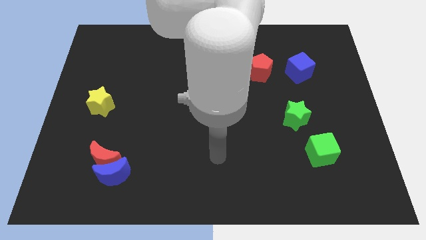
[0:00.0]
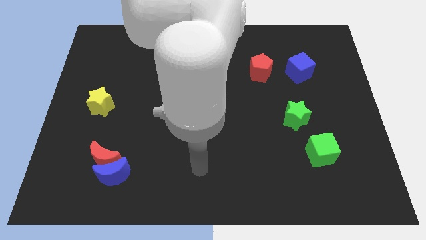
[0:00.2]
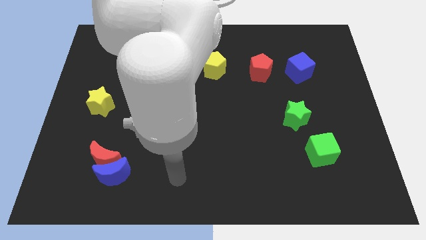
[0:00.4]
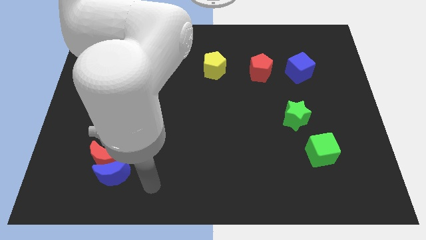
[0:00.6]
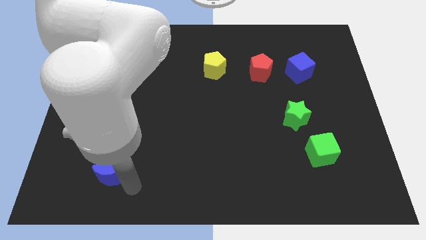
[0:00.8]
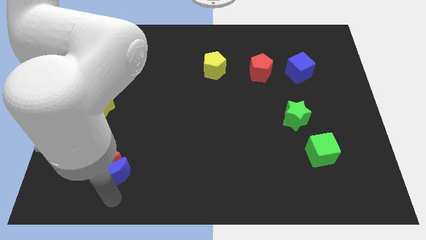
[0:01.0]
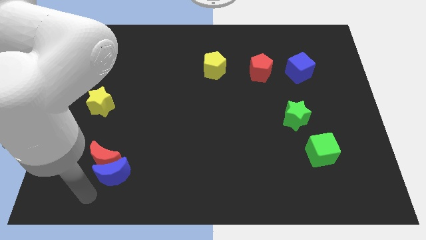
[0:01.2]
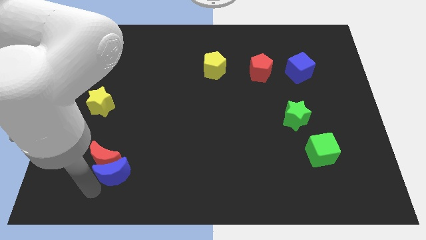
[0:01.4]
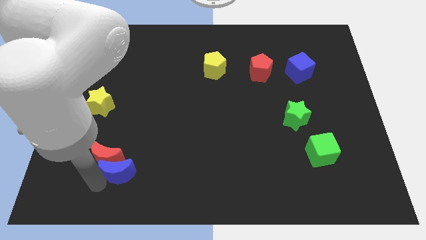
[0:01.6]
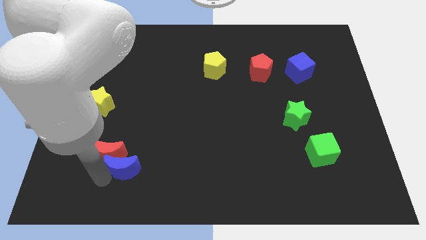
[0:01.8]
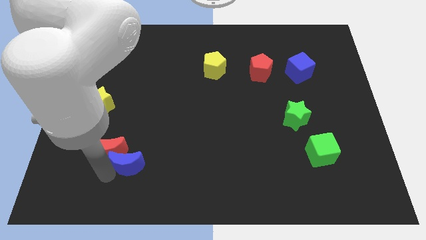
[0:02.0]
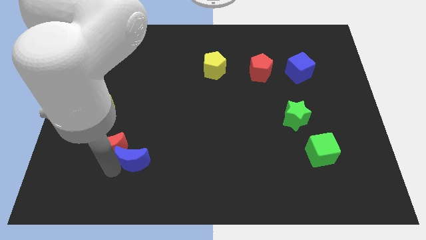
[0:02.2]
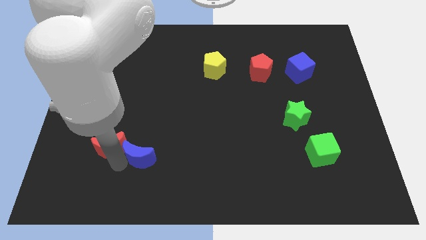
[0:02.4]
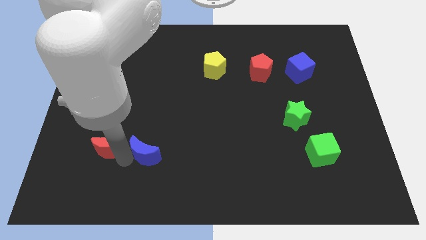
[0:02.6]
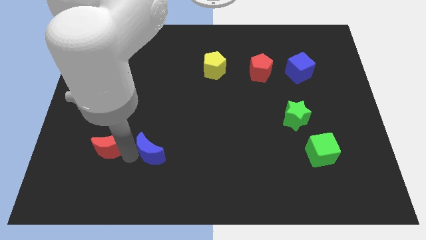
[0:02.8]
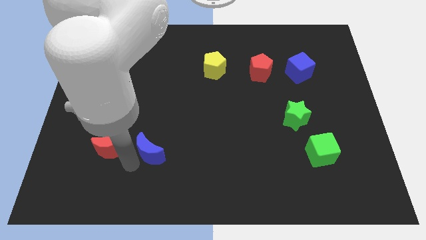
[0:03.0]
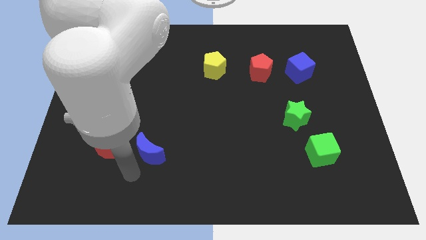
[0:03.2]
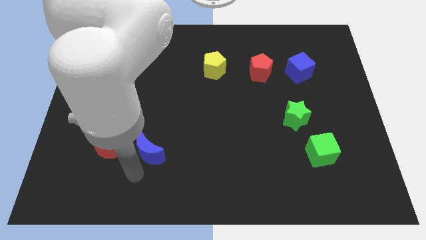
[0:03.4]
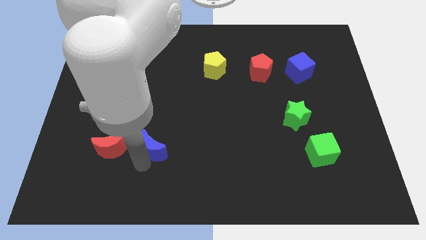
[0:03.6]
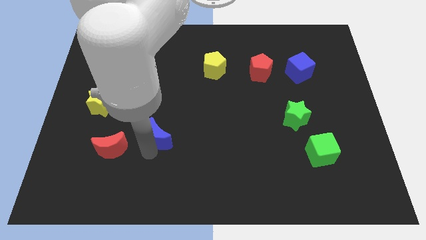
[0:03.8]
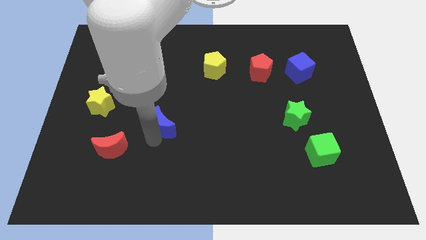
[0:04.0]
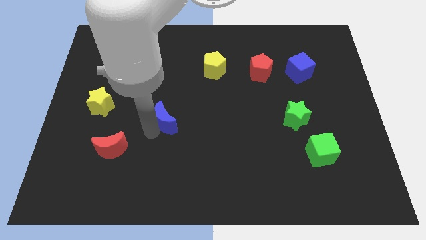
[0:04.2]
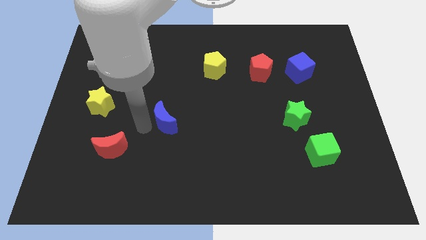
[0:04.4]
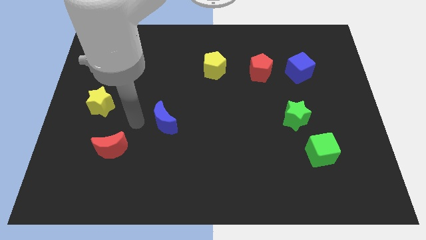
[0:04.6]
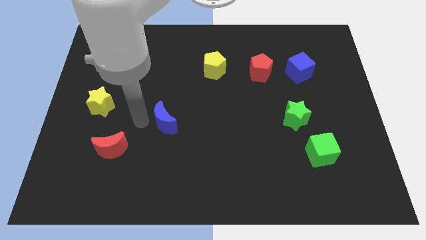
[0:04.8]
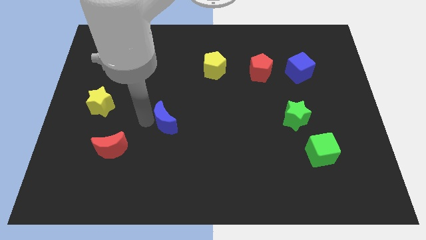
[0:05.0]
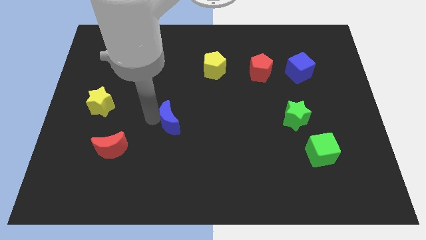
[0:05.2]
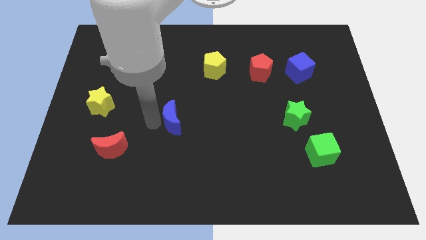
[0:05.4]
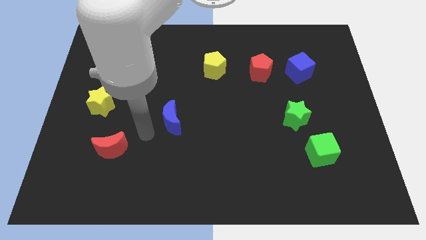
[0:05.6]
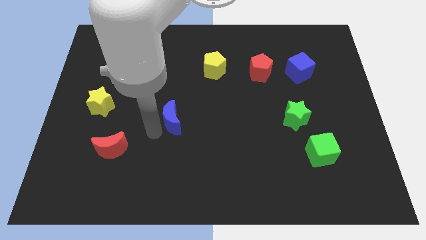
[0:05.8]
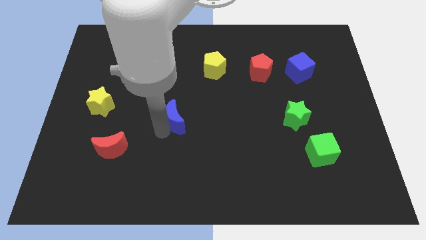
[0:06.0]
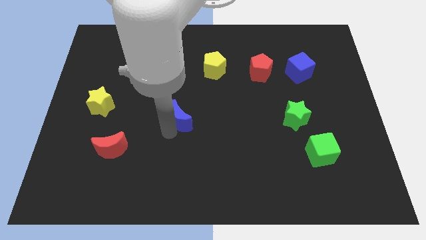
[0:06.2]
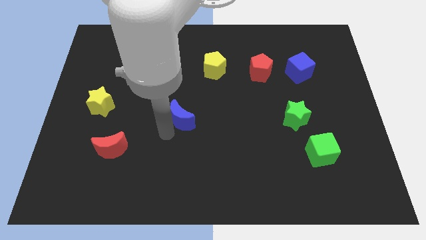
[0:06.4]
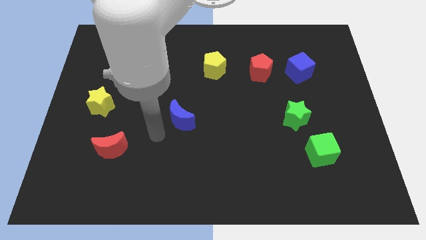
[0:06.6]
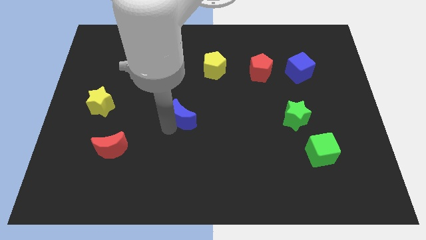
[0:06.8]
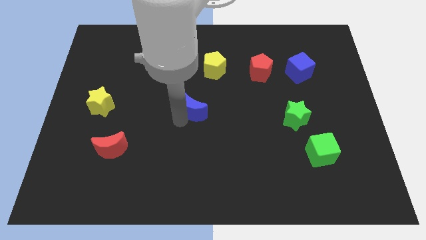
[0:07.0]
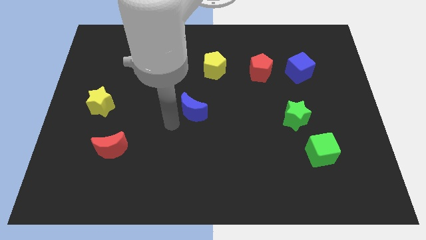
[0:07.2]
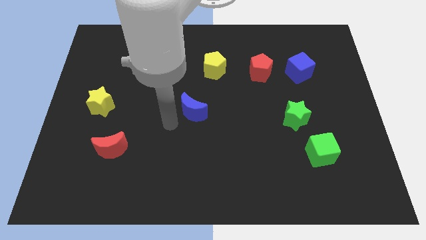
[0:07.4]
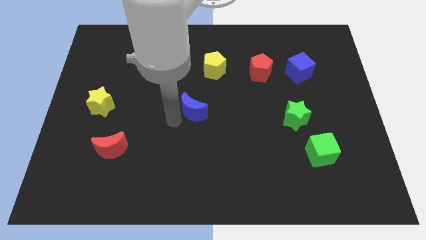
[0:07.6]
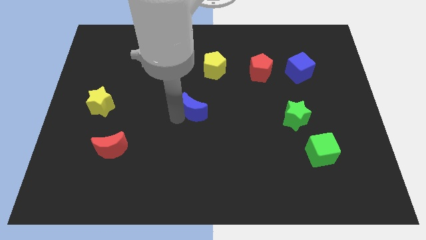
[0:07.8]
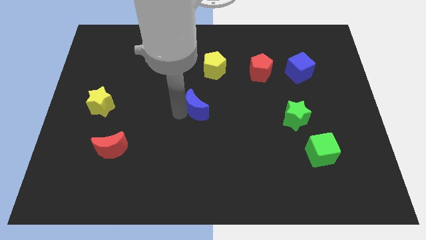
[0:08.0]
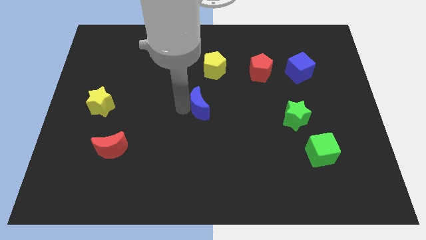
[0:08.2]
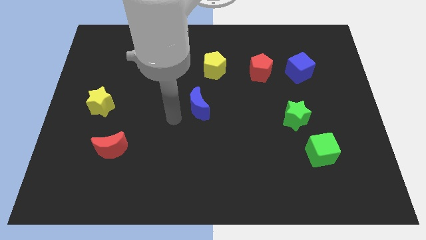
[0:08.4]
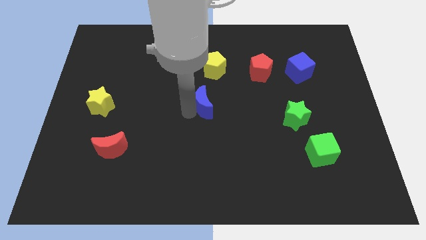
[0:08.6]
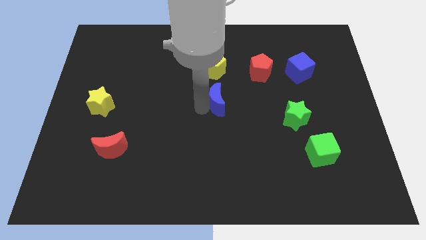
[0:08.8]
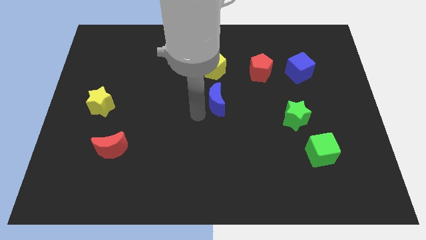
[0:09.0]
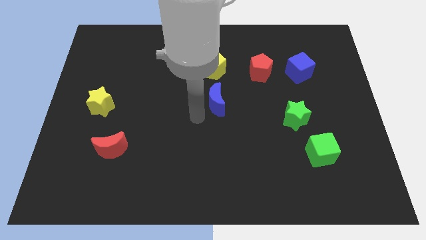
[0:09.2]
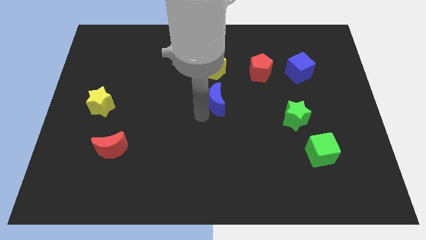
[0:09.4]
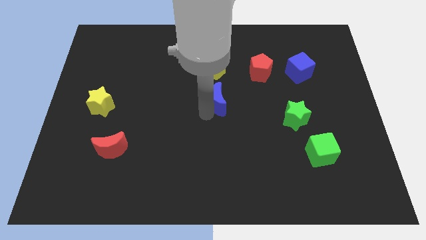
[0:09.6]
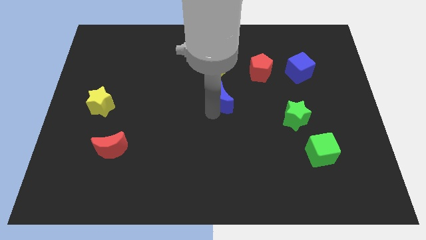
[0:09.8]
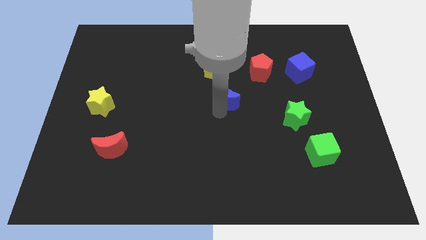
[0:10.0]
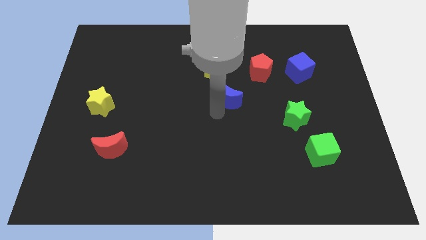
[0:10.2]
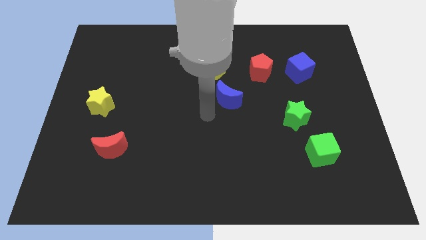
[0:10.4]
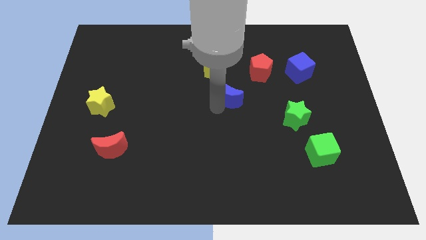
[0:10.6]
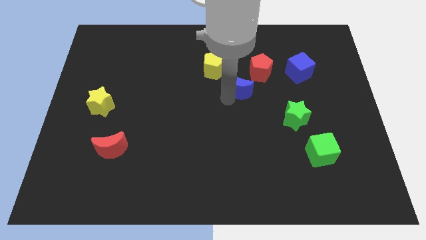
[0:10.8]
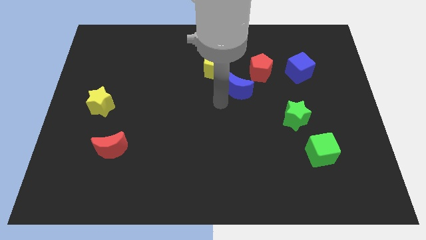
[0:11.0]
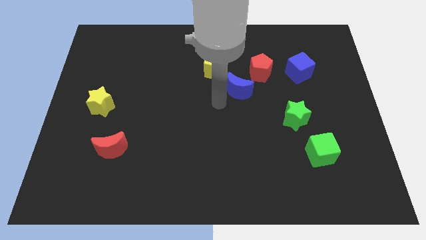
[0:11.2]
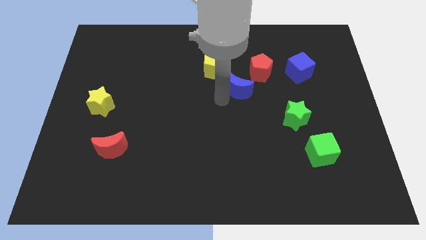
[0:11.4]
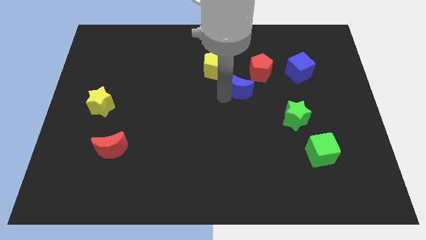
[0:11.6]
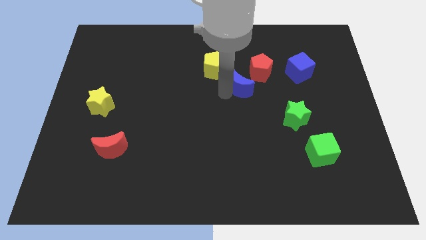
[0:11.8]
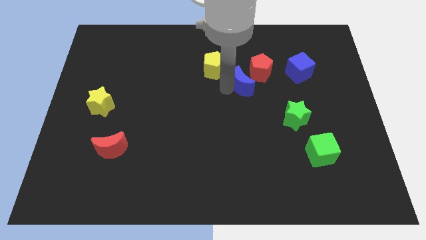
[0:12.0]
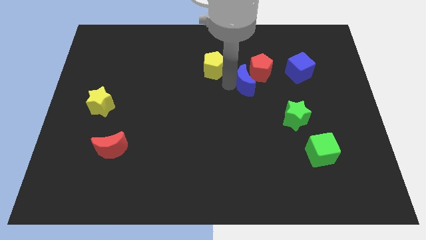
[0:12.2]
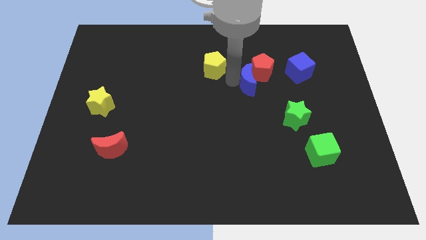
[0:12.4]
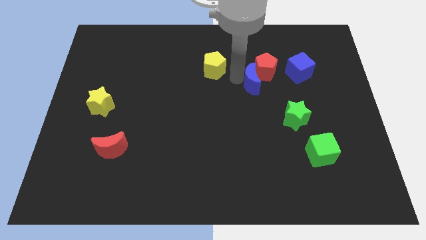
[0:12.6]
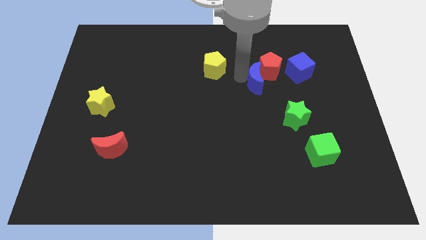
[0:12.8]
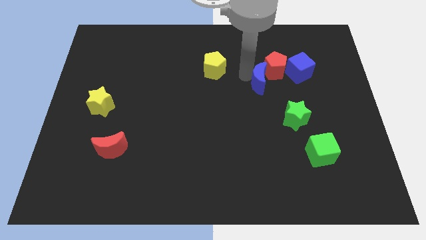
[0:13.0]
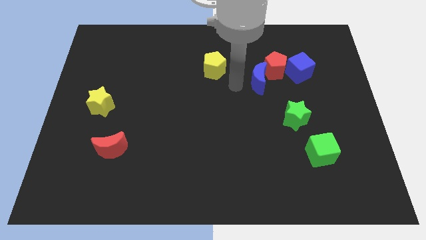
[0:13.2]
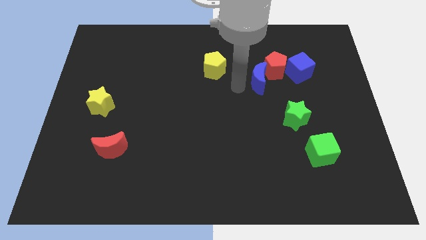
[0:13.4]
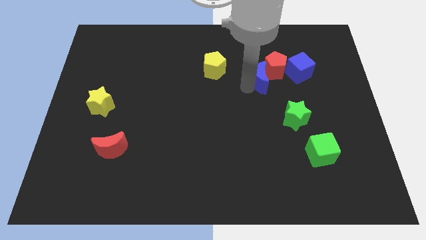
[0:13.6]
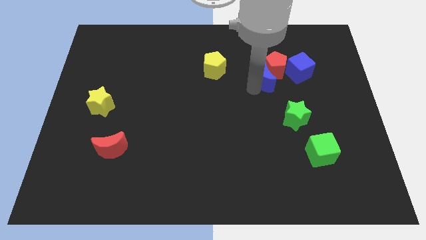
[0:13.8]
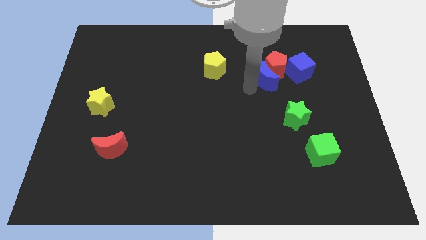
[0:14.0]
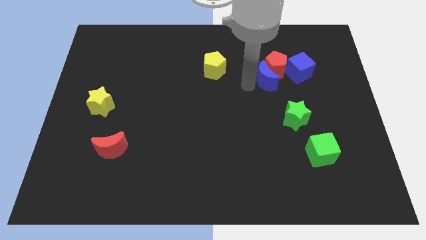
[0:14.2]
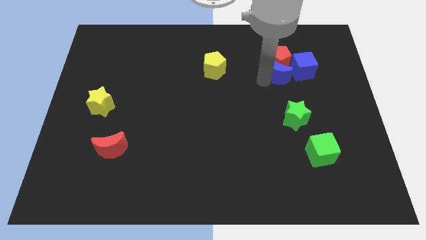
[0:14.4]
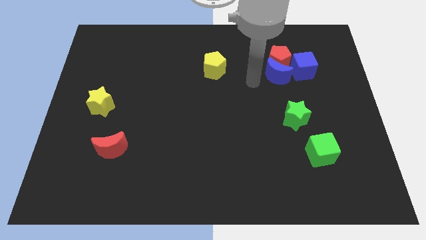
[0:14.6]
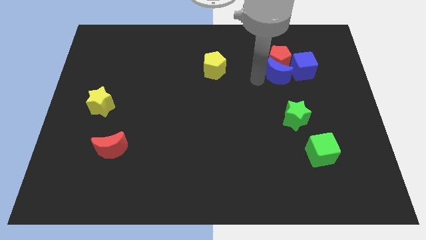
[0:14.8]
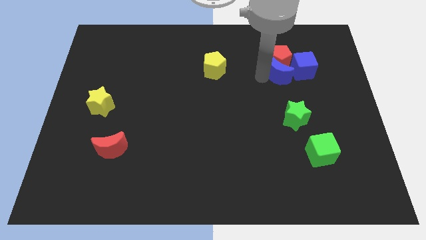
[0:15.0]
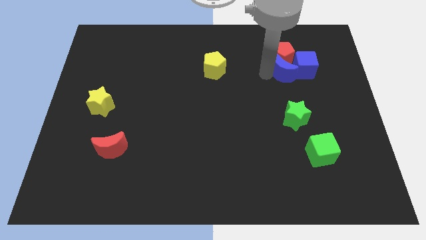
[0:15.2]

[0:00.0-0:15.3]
put the blue moon towards the blue cube

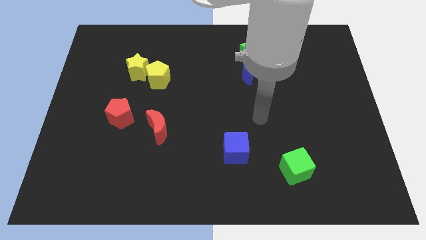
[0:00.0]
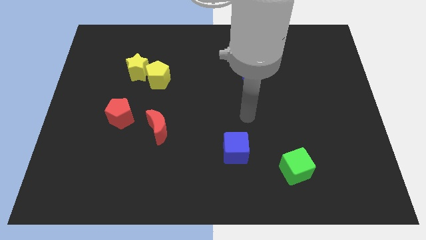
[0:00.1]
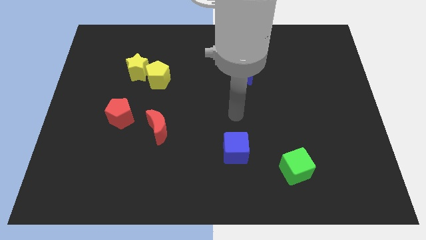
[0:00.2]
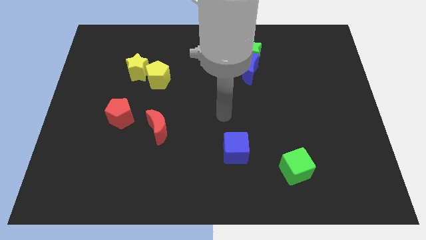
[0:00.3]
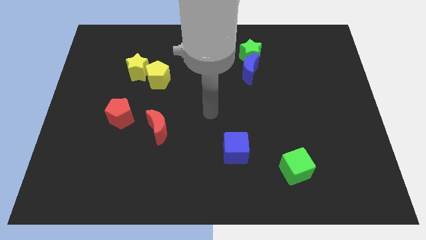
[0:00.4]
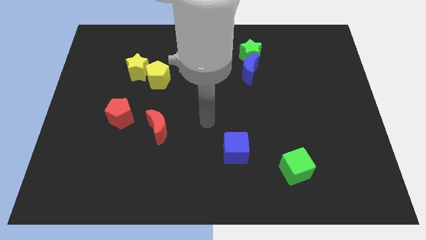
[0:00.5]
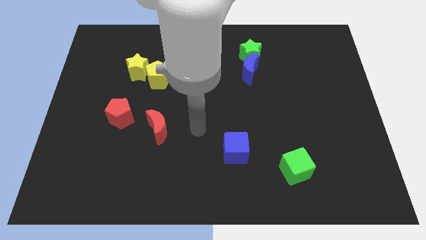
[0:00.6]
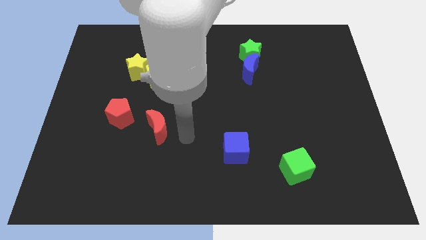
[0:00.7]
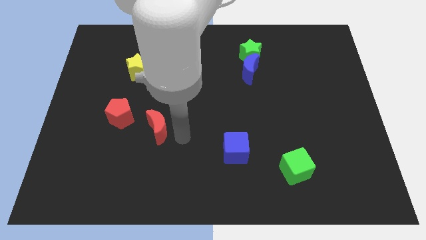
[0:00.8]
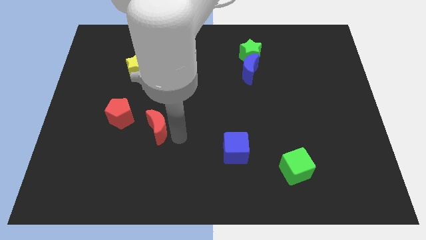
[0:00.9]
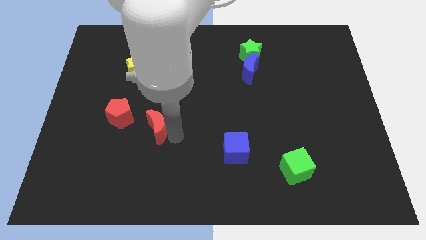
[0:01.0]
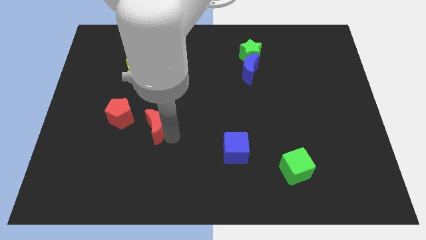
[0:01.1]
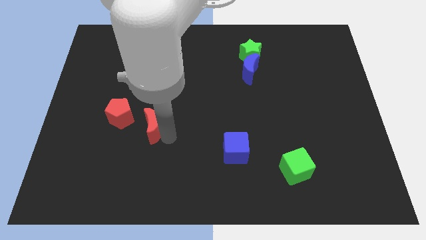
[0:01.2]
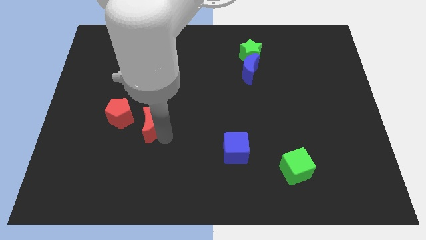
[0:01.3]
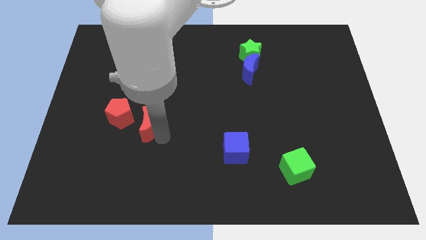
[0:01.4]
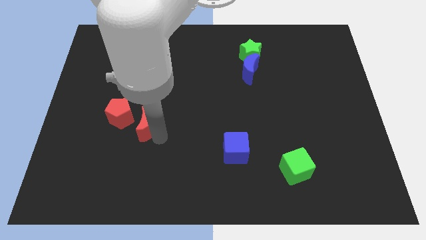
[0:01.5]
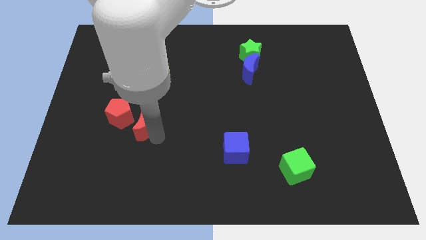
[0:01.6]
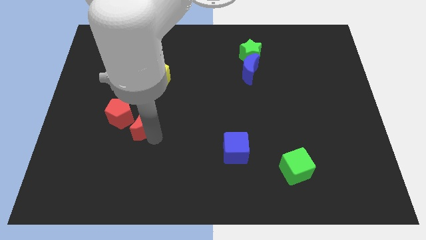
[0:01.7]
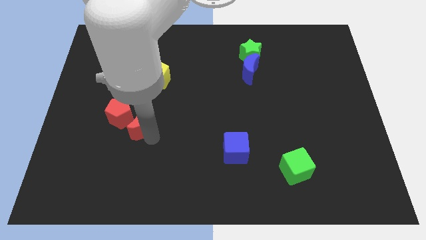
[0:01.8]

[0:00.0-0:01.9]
slide the red moon to the red pentagon
